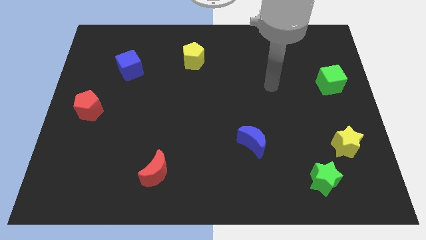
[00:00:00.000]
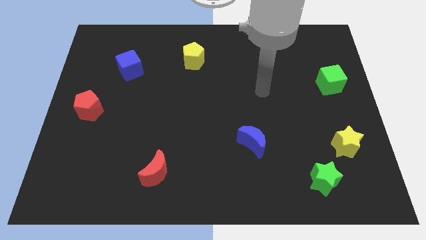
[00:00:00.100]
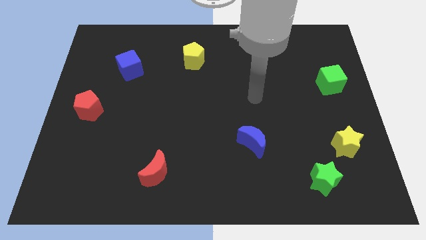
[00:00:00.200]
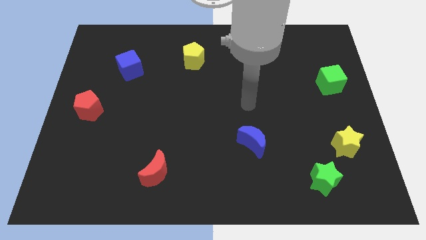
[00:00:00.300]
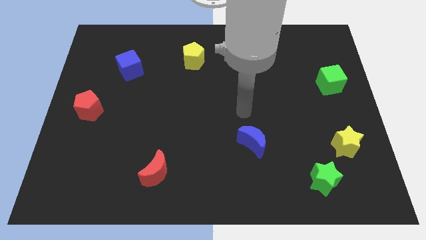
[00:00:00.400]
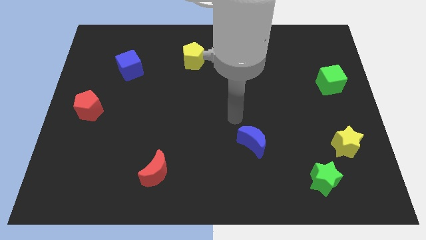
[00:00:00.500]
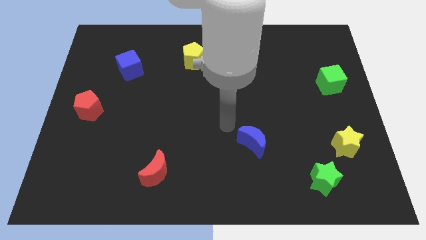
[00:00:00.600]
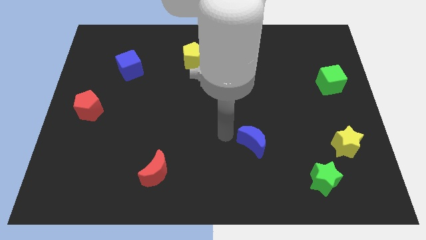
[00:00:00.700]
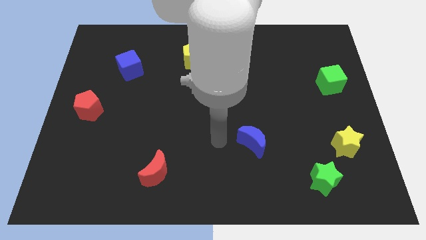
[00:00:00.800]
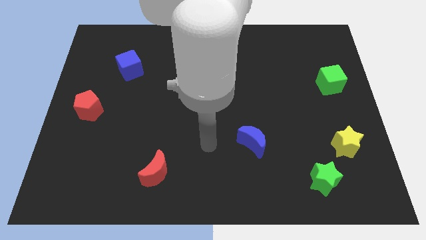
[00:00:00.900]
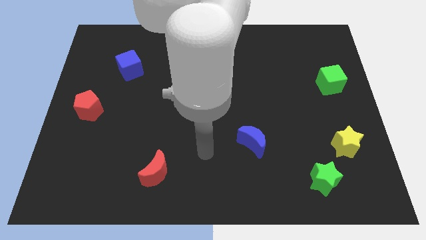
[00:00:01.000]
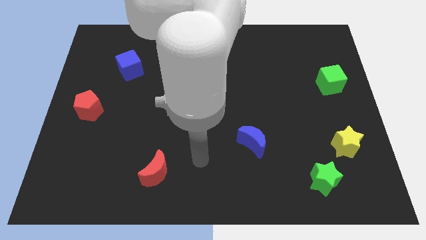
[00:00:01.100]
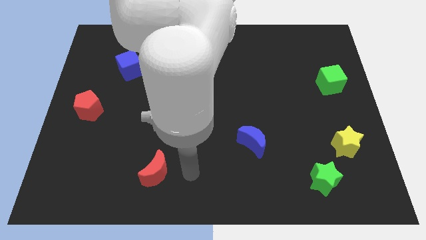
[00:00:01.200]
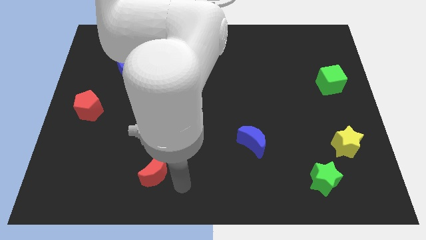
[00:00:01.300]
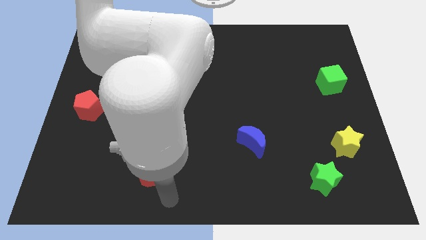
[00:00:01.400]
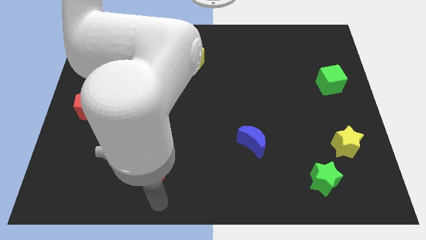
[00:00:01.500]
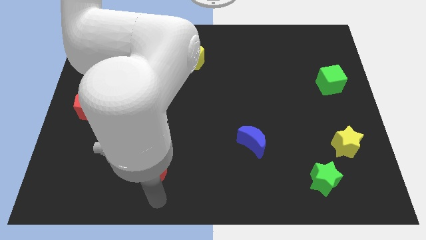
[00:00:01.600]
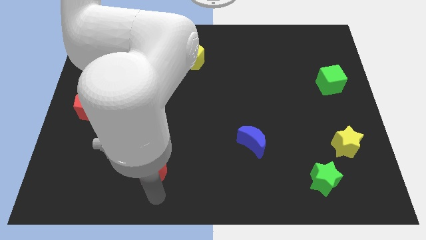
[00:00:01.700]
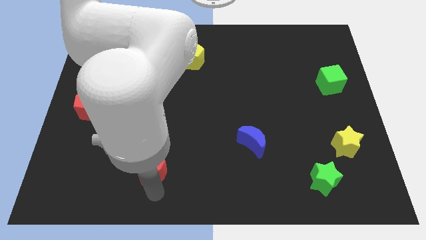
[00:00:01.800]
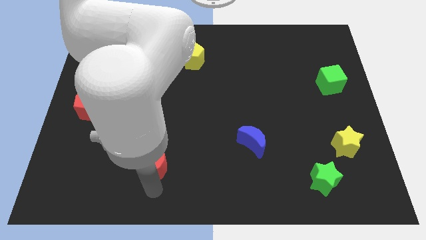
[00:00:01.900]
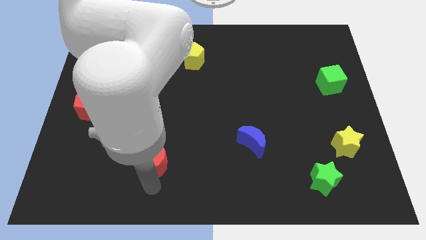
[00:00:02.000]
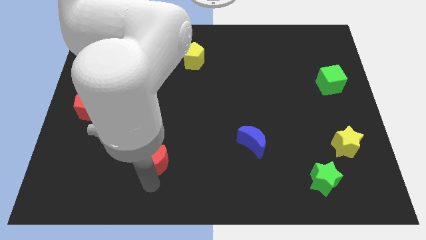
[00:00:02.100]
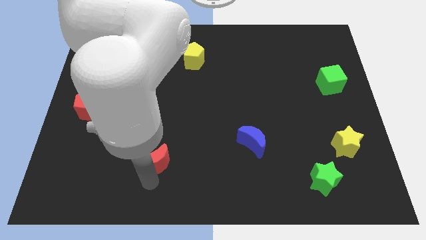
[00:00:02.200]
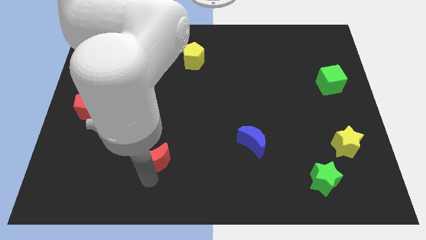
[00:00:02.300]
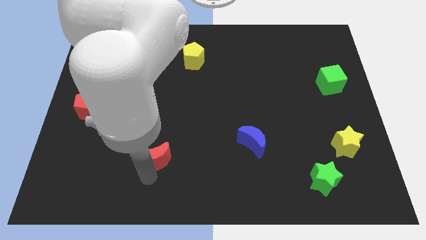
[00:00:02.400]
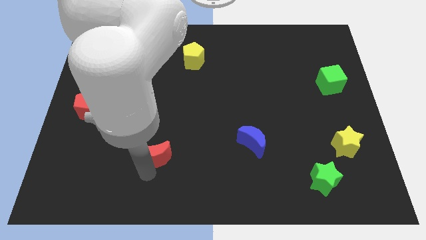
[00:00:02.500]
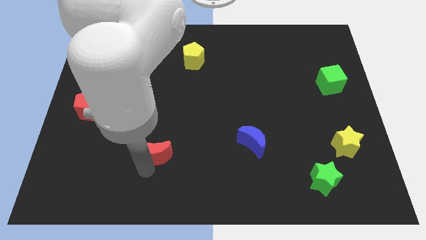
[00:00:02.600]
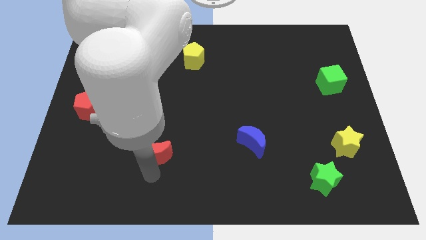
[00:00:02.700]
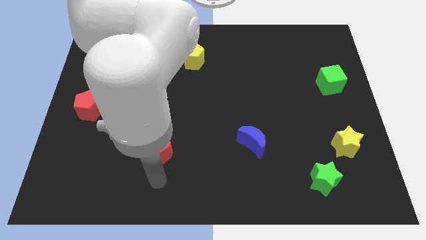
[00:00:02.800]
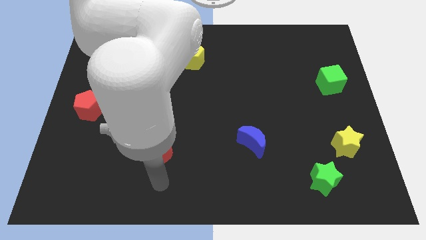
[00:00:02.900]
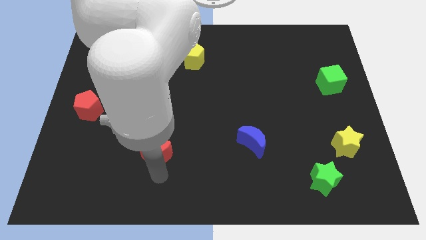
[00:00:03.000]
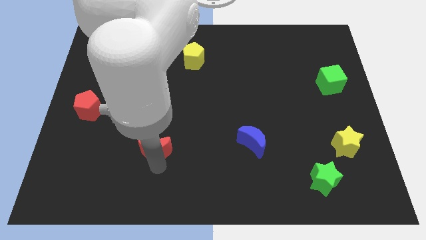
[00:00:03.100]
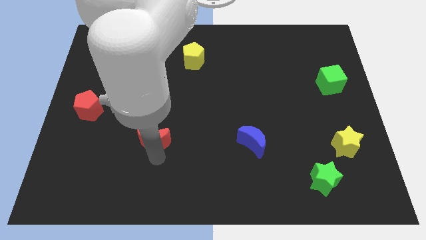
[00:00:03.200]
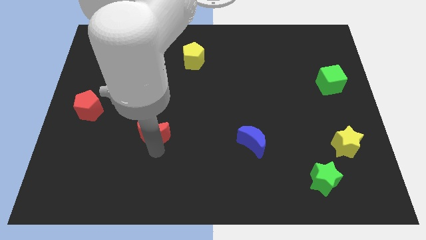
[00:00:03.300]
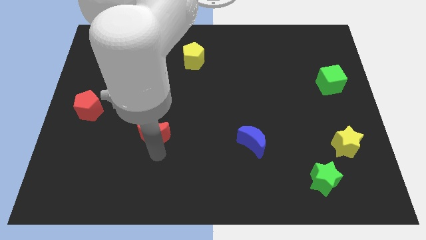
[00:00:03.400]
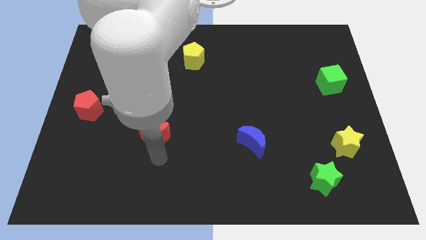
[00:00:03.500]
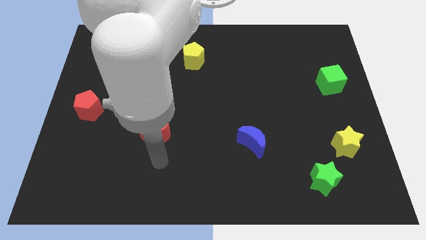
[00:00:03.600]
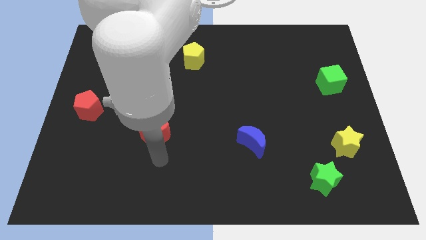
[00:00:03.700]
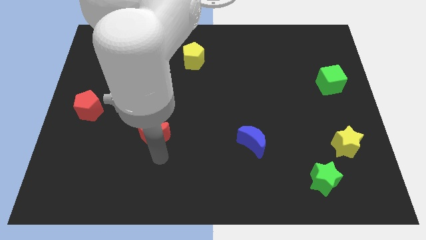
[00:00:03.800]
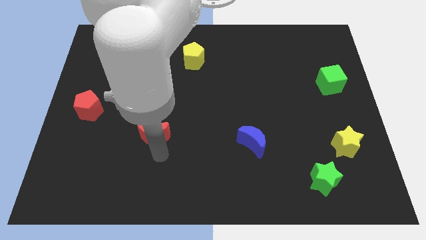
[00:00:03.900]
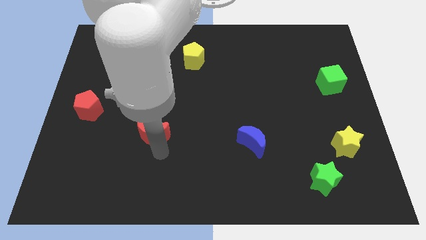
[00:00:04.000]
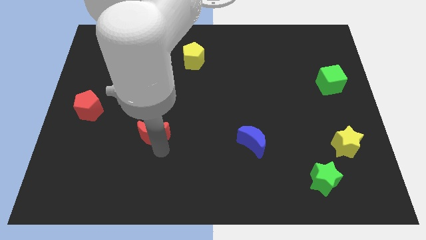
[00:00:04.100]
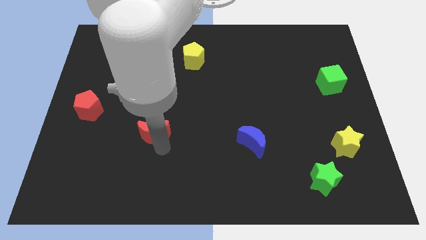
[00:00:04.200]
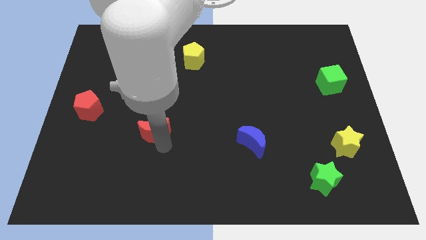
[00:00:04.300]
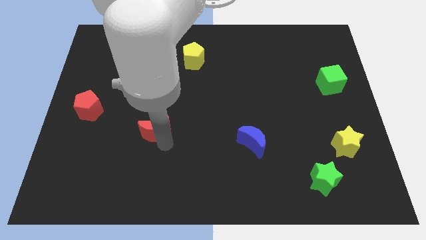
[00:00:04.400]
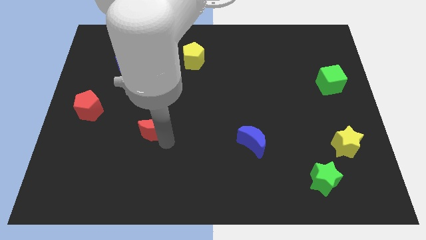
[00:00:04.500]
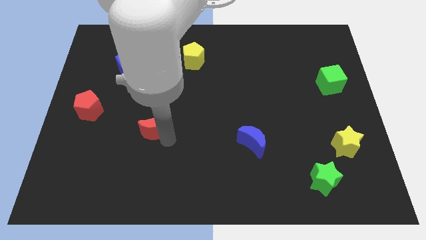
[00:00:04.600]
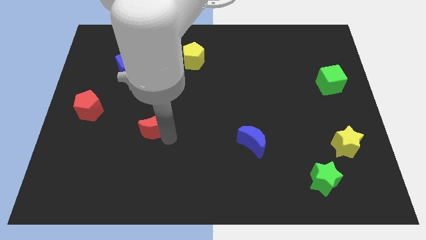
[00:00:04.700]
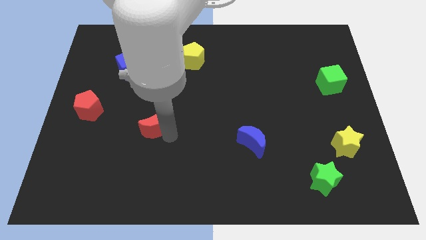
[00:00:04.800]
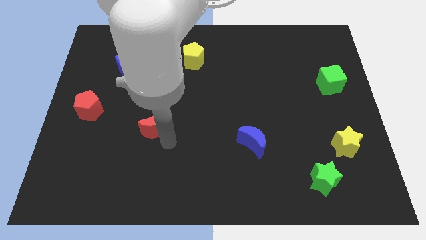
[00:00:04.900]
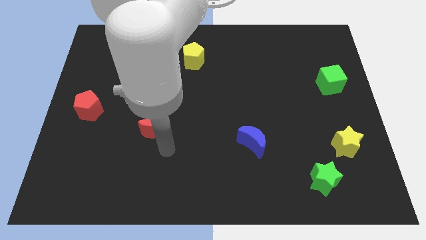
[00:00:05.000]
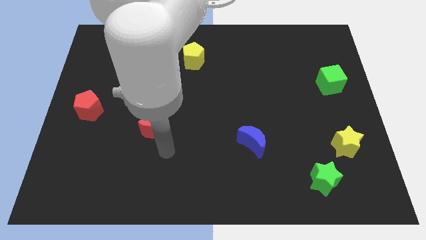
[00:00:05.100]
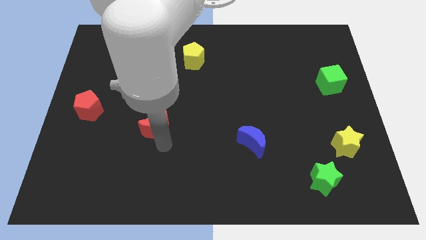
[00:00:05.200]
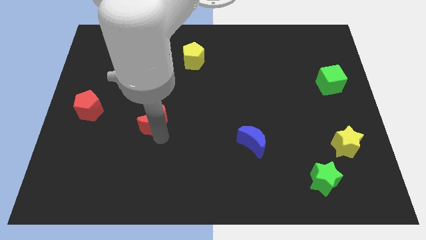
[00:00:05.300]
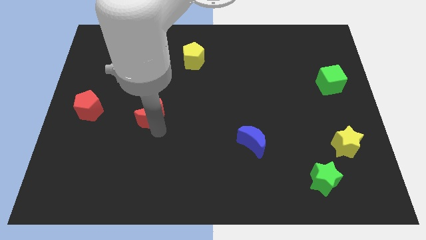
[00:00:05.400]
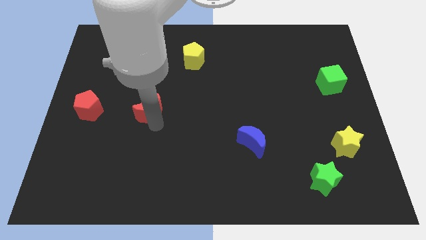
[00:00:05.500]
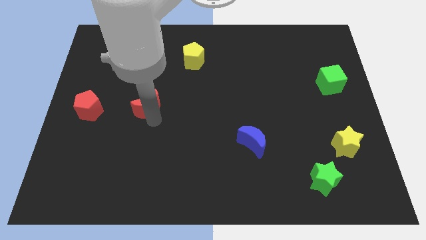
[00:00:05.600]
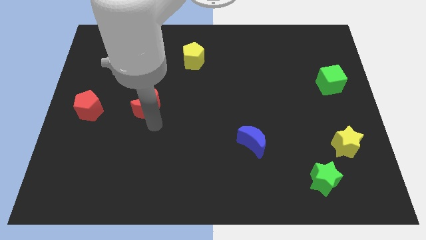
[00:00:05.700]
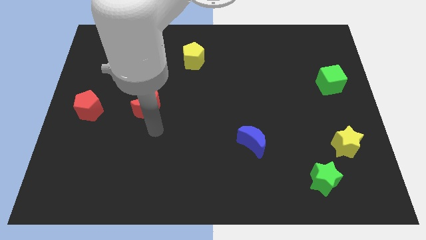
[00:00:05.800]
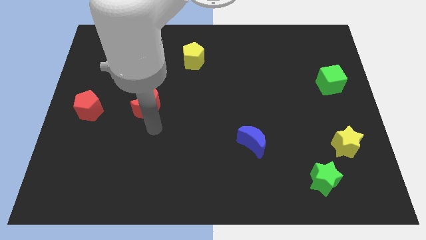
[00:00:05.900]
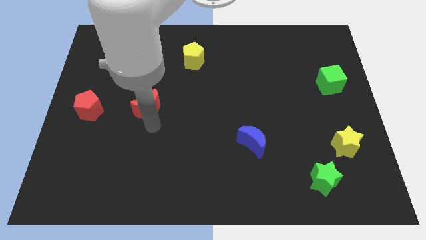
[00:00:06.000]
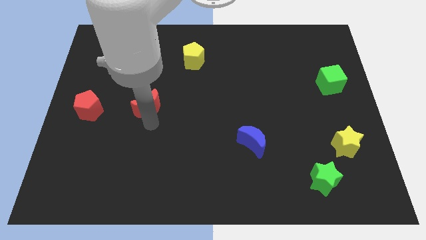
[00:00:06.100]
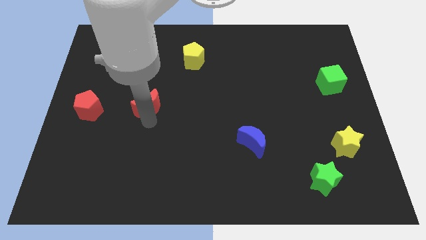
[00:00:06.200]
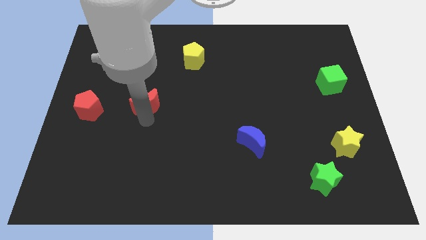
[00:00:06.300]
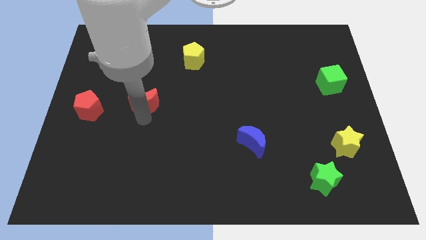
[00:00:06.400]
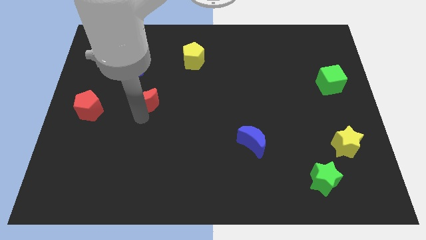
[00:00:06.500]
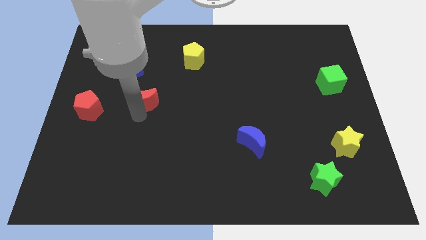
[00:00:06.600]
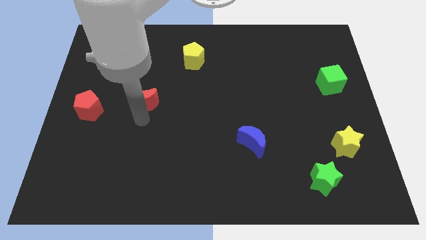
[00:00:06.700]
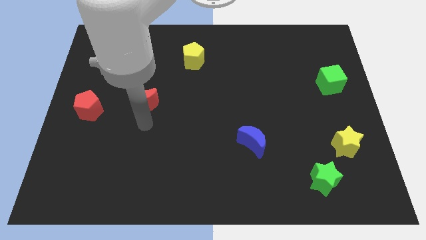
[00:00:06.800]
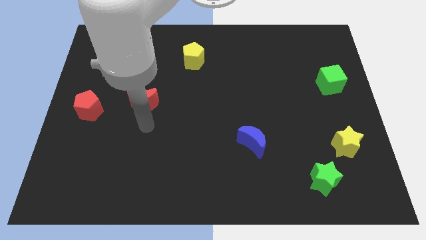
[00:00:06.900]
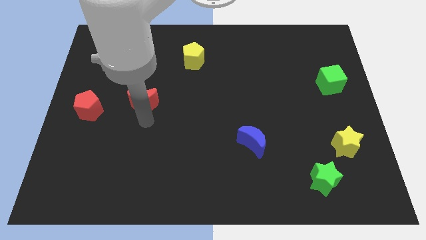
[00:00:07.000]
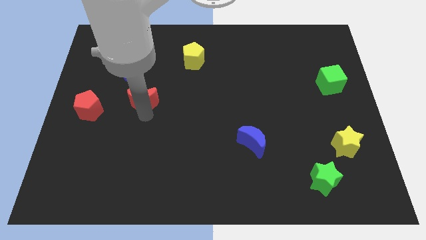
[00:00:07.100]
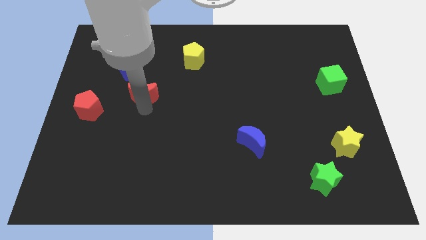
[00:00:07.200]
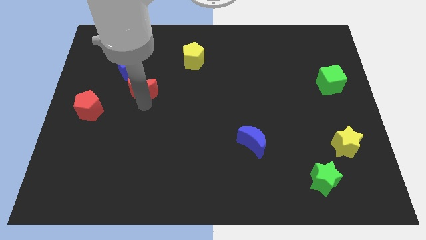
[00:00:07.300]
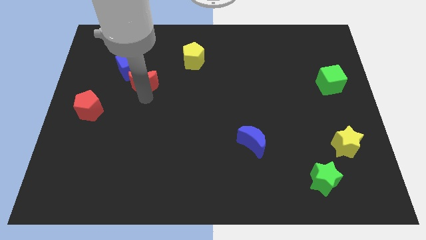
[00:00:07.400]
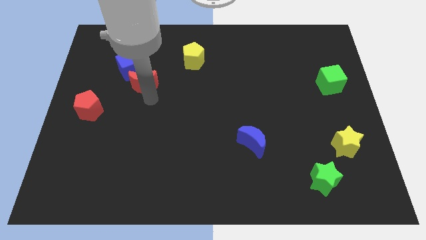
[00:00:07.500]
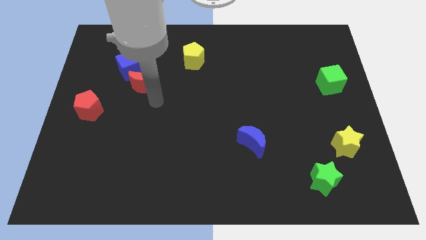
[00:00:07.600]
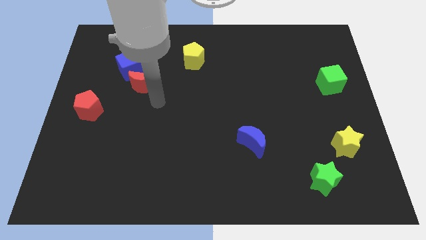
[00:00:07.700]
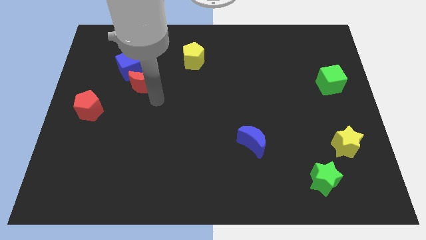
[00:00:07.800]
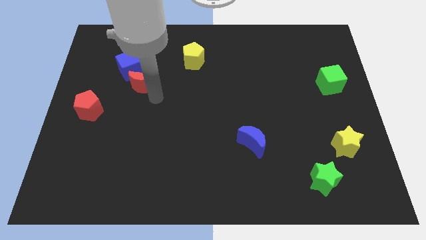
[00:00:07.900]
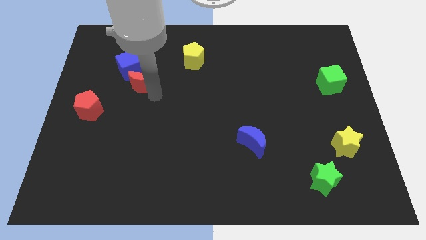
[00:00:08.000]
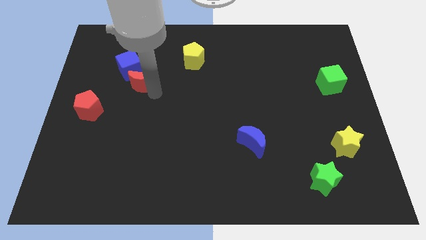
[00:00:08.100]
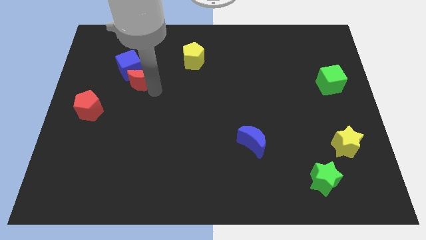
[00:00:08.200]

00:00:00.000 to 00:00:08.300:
slide the red moon next to the blue cube
